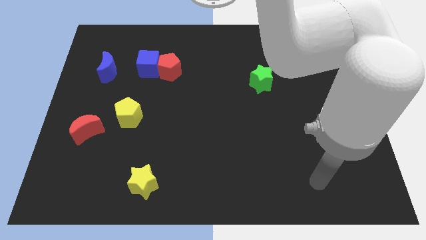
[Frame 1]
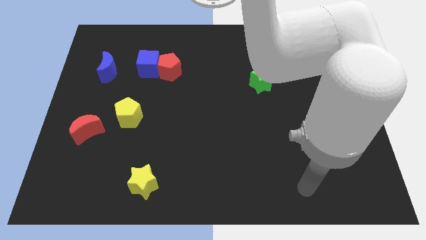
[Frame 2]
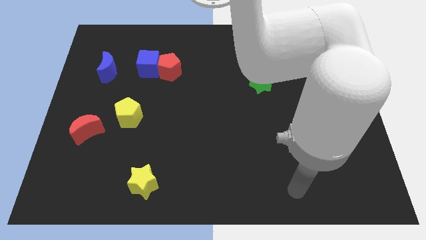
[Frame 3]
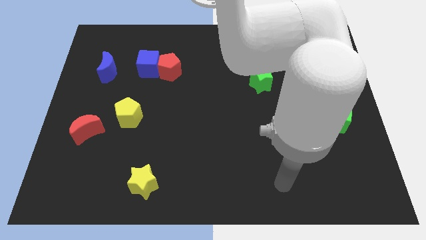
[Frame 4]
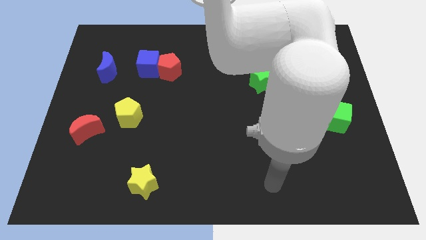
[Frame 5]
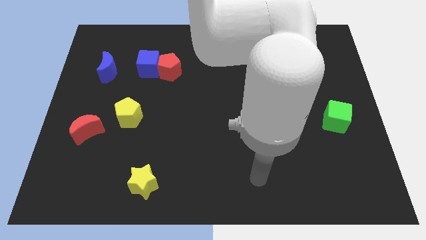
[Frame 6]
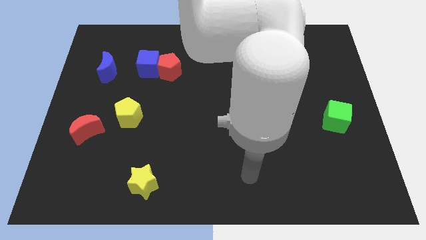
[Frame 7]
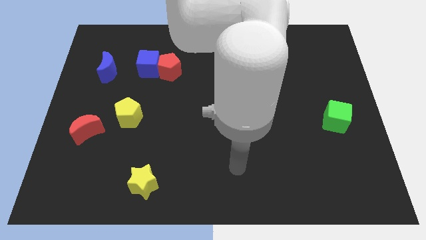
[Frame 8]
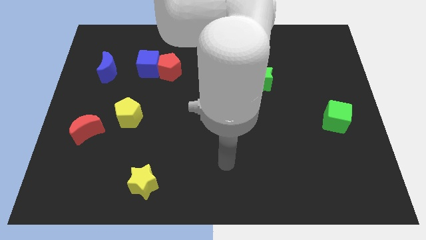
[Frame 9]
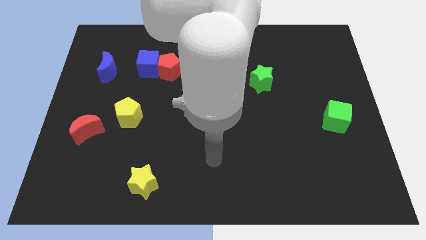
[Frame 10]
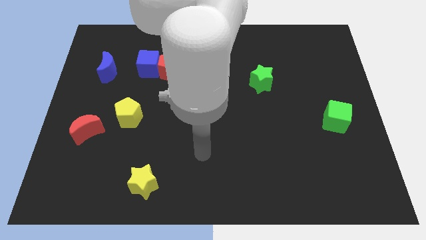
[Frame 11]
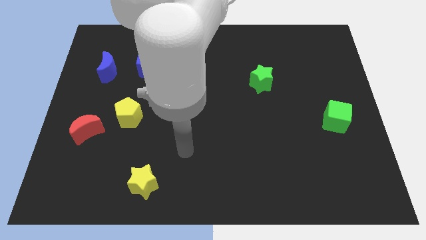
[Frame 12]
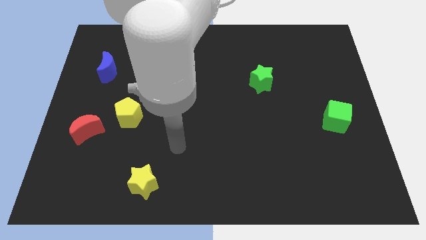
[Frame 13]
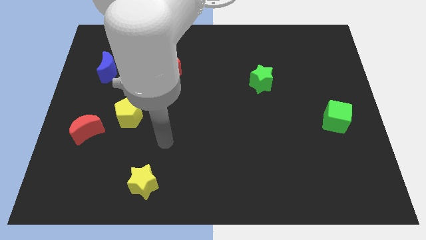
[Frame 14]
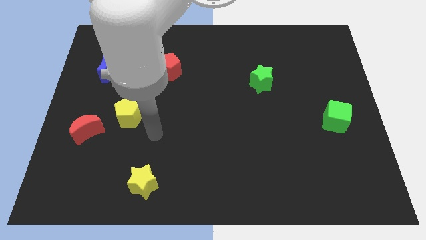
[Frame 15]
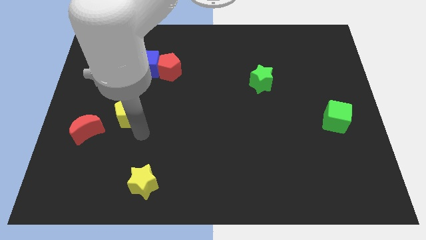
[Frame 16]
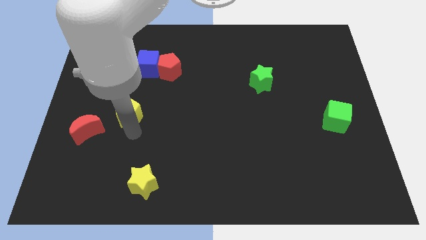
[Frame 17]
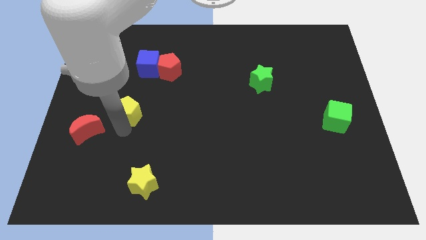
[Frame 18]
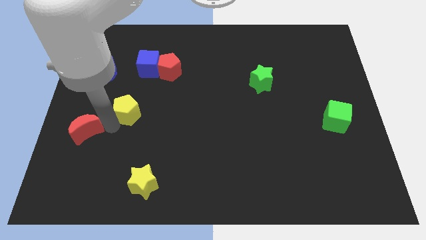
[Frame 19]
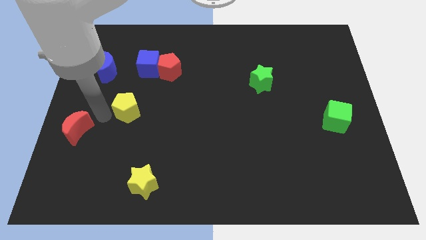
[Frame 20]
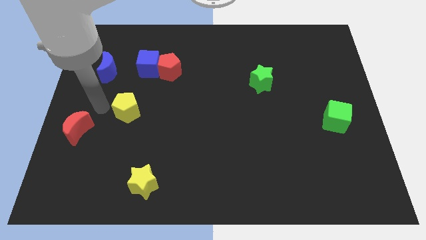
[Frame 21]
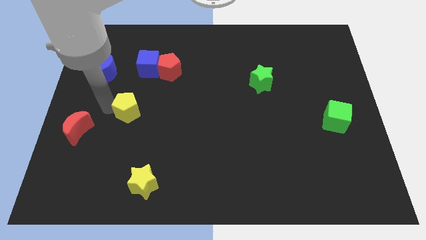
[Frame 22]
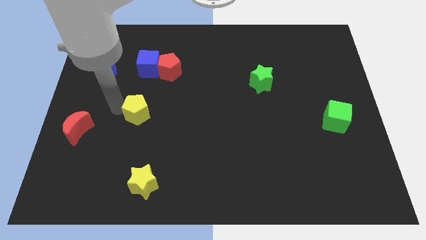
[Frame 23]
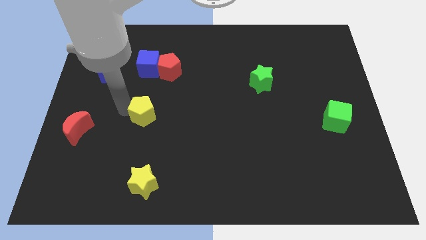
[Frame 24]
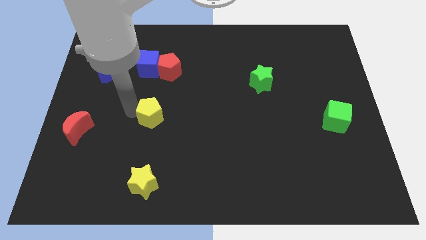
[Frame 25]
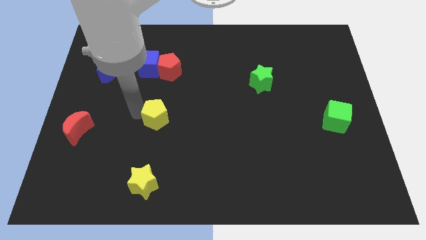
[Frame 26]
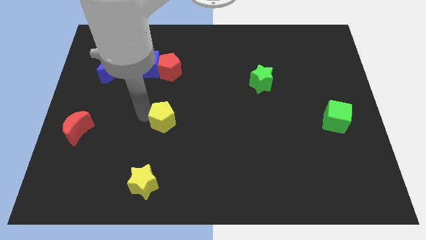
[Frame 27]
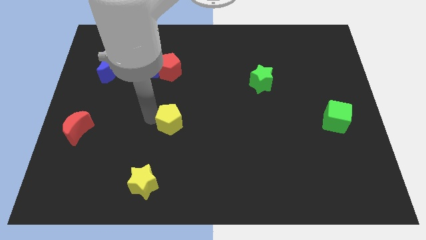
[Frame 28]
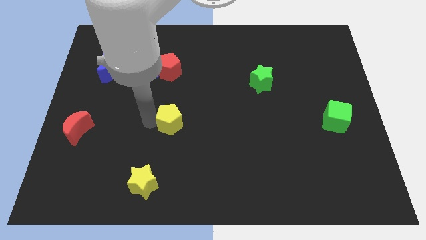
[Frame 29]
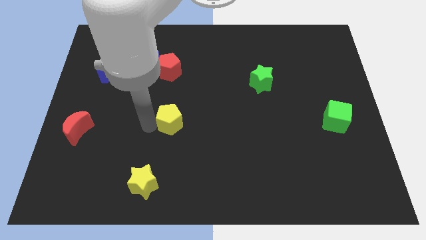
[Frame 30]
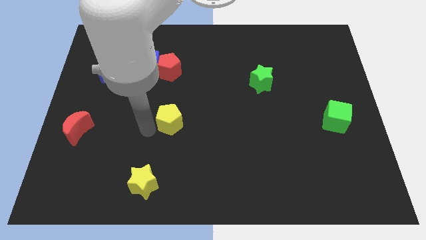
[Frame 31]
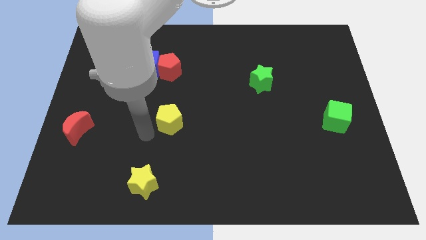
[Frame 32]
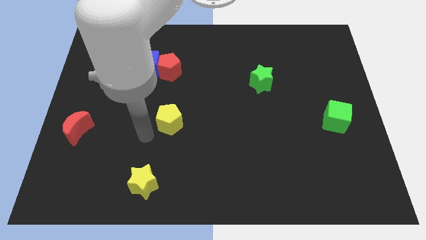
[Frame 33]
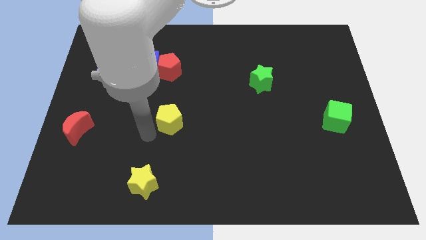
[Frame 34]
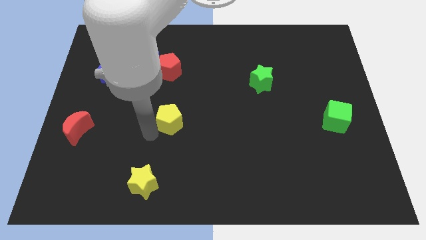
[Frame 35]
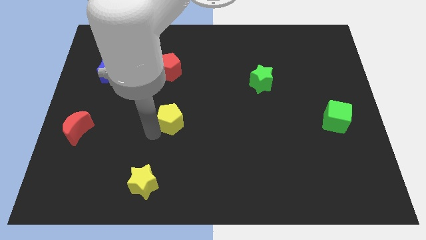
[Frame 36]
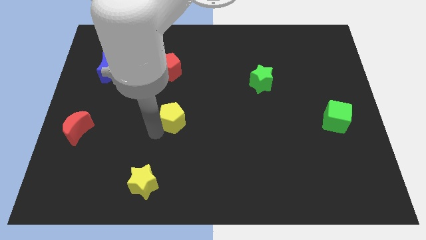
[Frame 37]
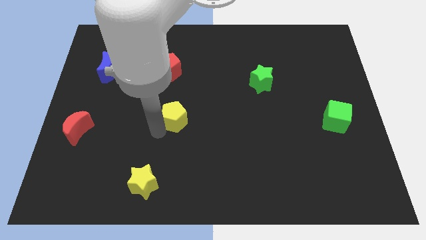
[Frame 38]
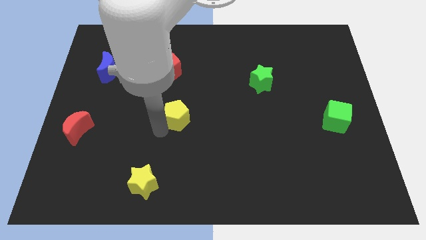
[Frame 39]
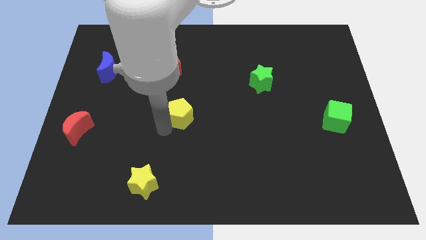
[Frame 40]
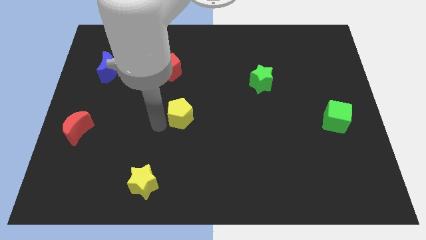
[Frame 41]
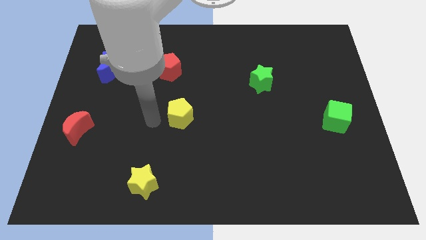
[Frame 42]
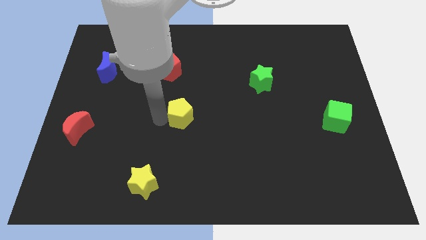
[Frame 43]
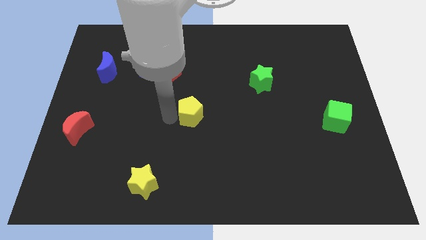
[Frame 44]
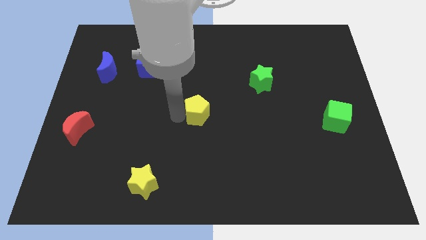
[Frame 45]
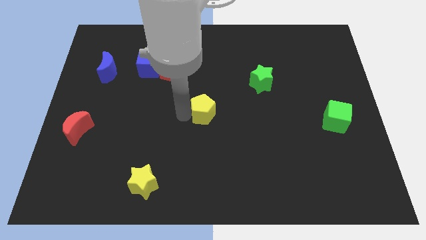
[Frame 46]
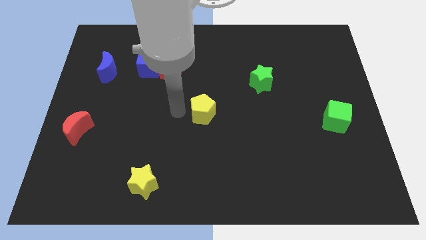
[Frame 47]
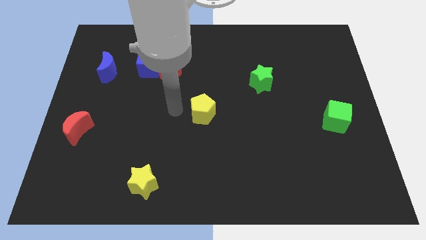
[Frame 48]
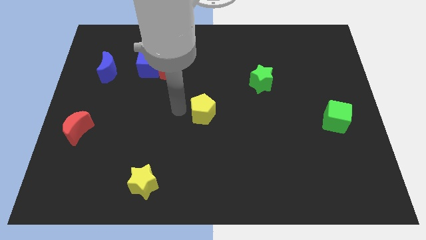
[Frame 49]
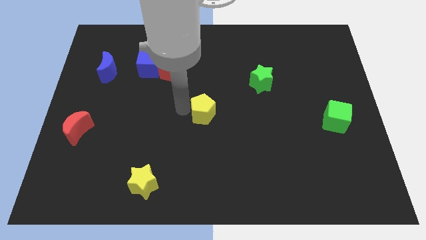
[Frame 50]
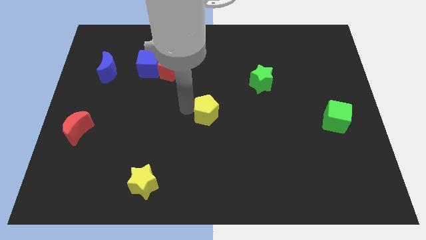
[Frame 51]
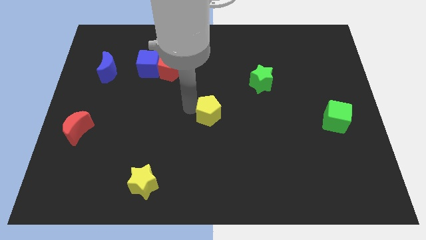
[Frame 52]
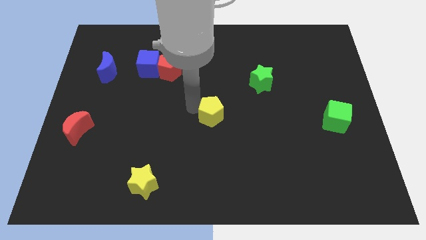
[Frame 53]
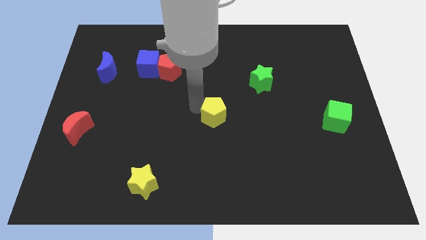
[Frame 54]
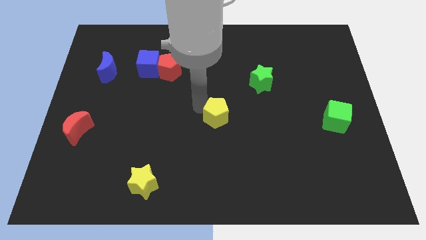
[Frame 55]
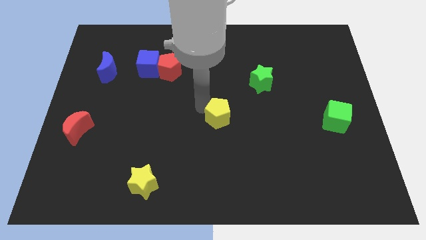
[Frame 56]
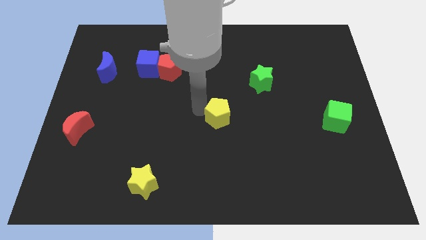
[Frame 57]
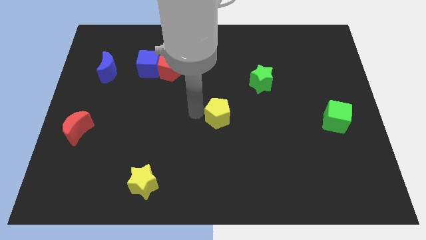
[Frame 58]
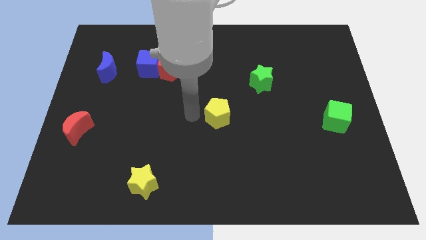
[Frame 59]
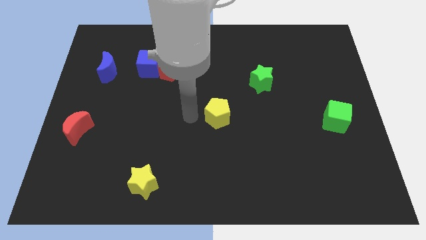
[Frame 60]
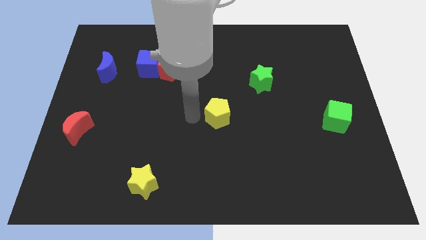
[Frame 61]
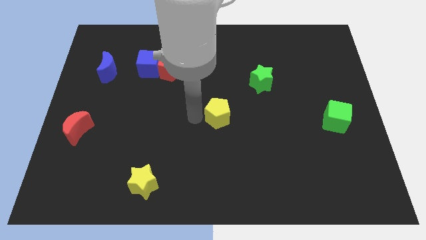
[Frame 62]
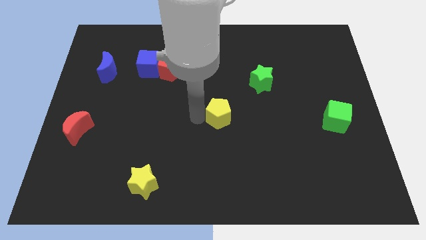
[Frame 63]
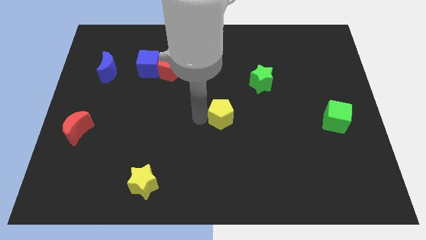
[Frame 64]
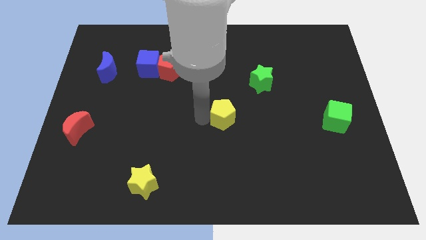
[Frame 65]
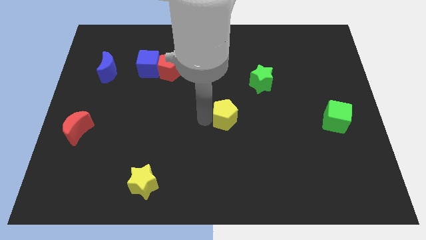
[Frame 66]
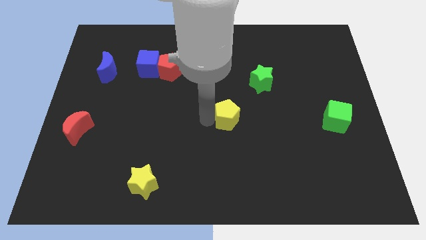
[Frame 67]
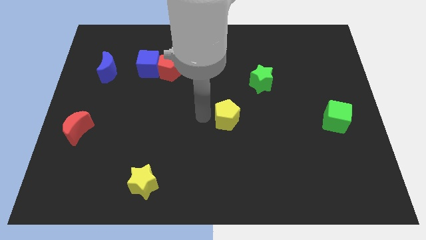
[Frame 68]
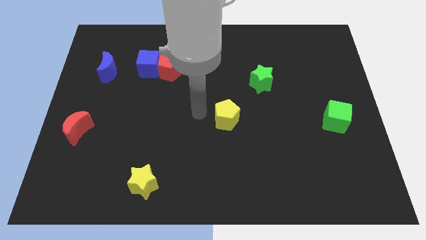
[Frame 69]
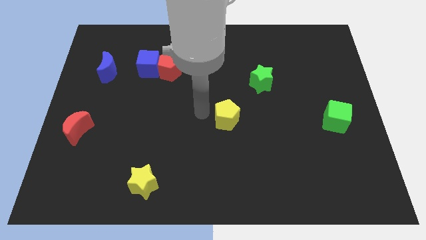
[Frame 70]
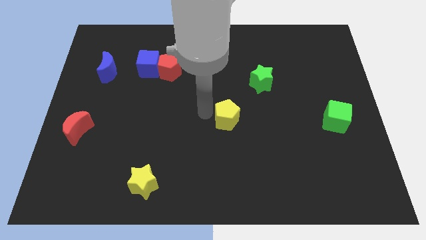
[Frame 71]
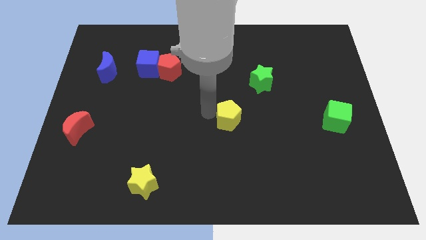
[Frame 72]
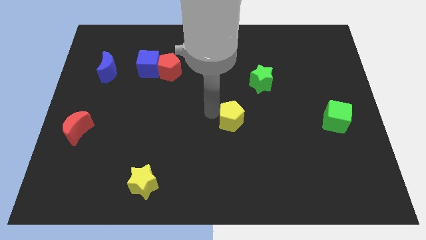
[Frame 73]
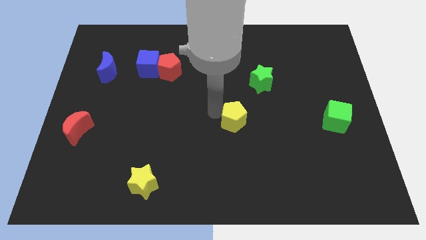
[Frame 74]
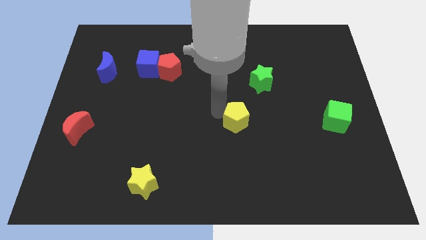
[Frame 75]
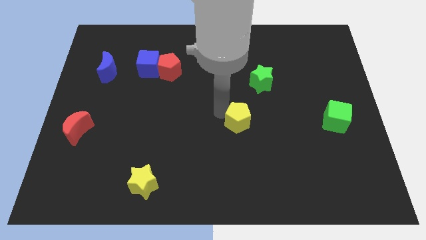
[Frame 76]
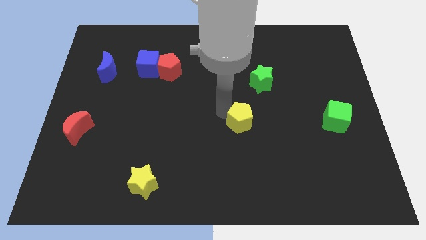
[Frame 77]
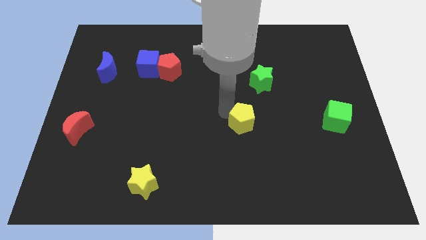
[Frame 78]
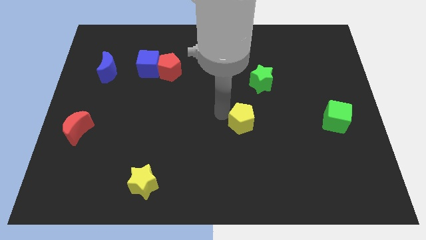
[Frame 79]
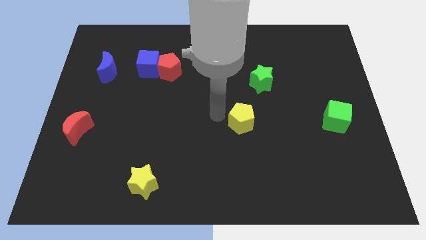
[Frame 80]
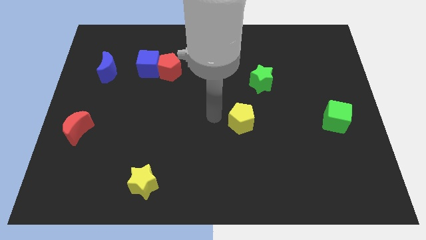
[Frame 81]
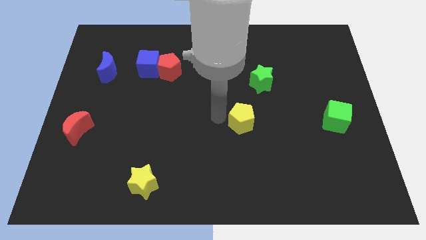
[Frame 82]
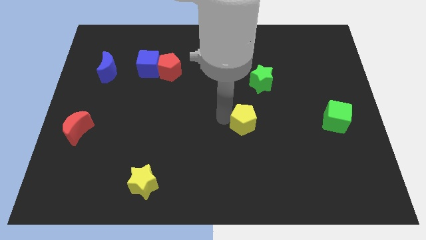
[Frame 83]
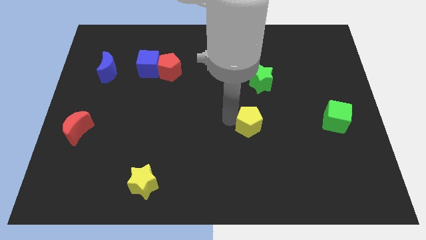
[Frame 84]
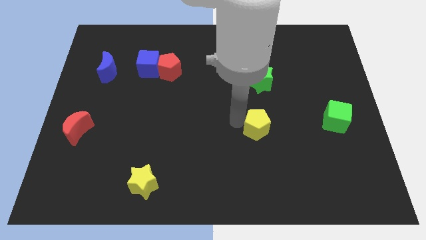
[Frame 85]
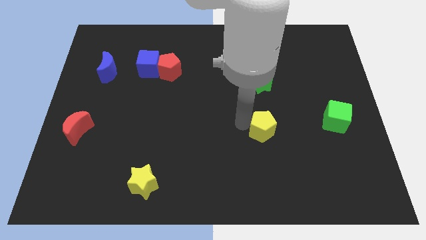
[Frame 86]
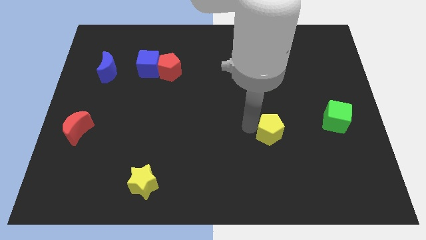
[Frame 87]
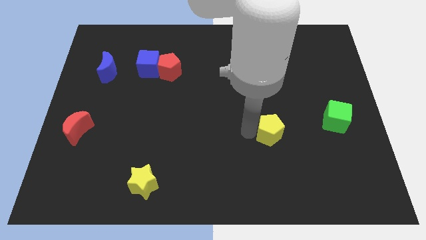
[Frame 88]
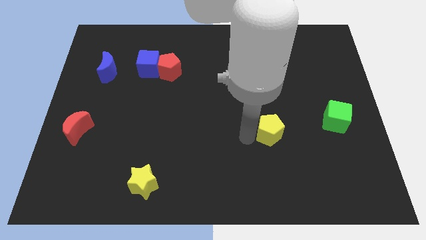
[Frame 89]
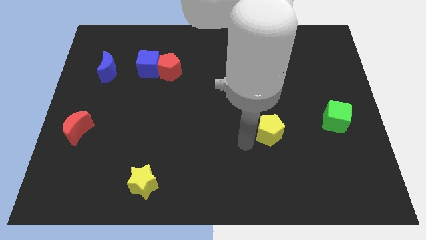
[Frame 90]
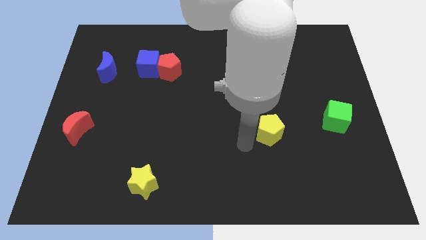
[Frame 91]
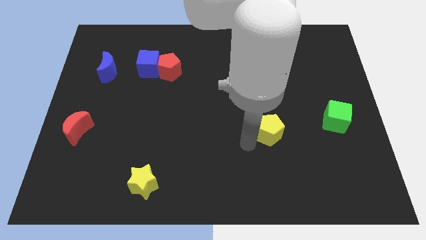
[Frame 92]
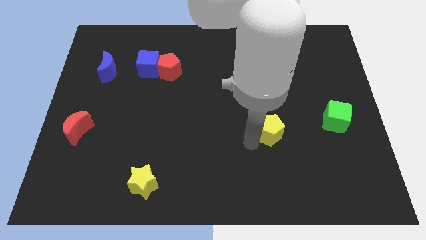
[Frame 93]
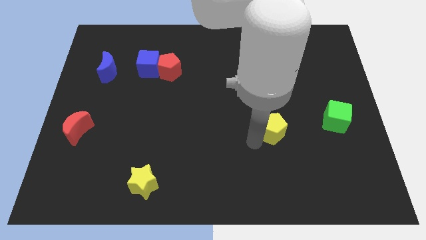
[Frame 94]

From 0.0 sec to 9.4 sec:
push the yellow pentagon just left of the green cube
